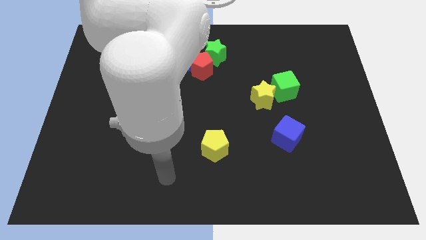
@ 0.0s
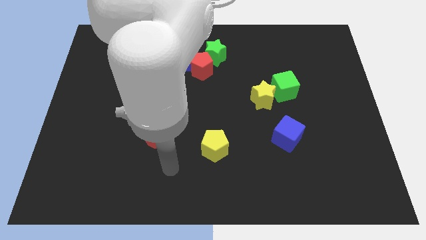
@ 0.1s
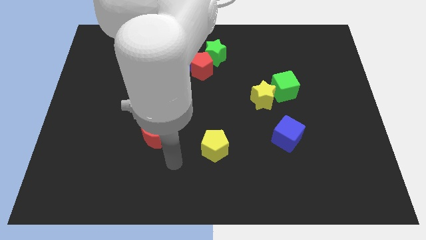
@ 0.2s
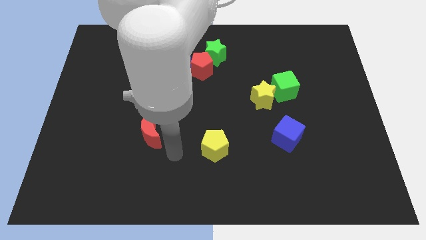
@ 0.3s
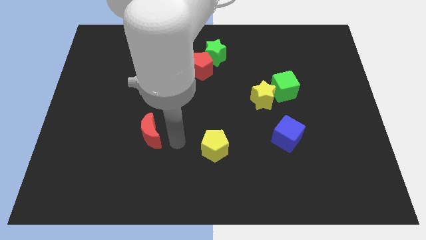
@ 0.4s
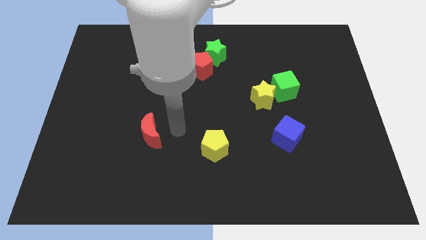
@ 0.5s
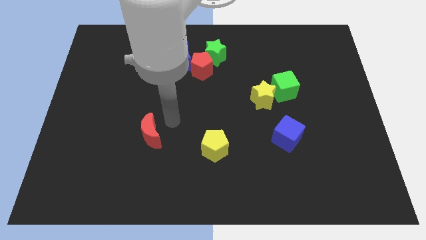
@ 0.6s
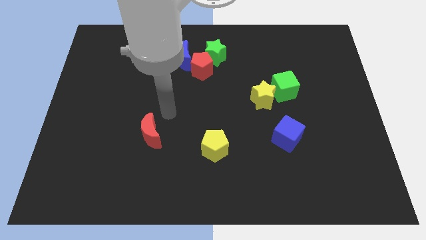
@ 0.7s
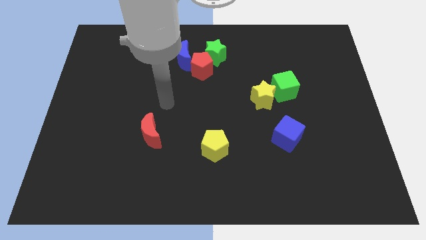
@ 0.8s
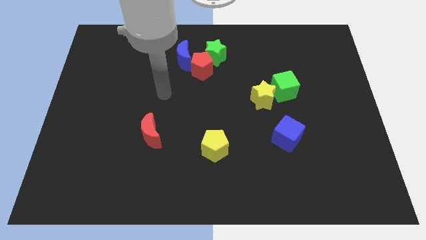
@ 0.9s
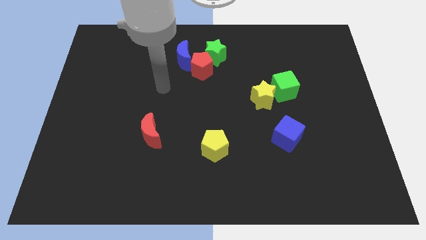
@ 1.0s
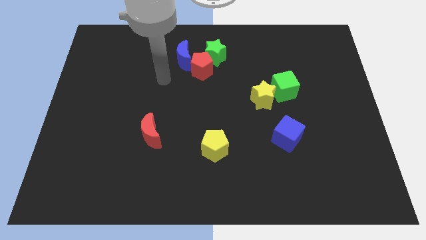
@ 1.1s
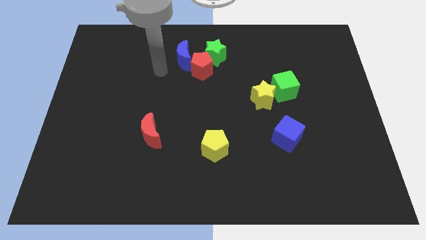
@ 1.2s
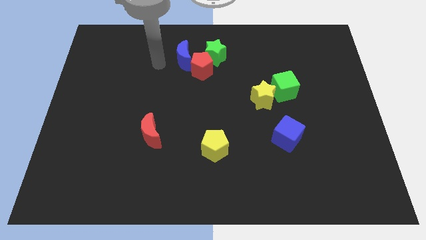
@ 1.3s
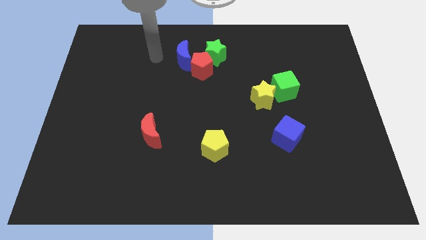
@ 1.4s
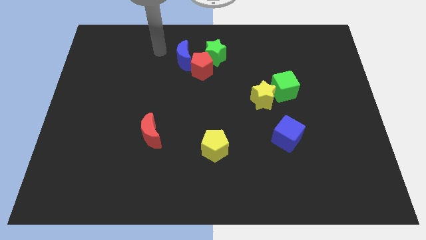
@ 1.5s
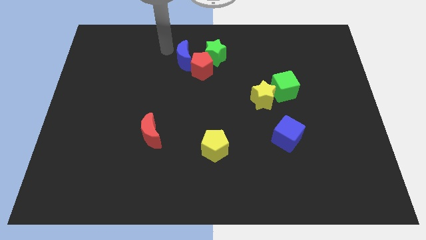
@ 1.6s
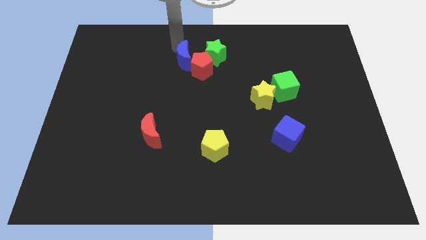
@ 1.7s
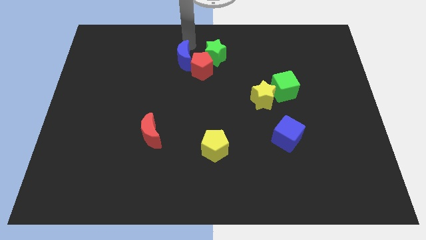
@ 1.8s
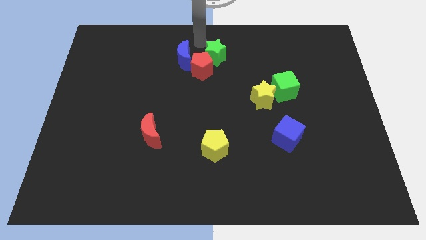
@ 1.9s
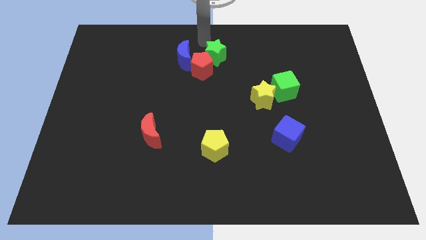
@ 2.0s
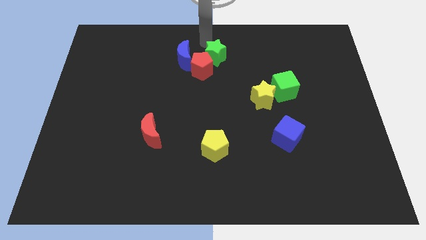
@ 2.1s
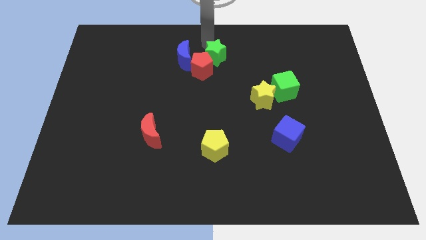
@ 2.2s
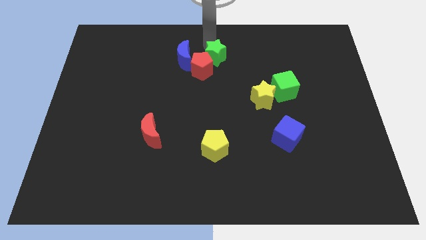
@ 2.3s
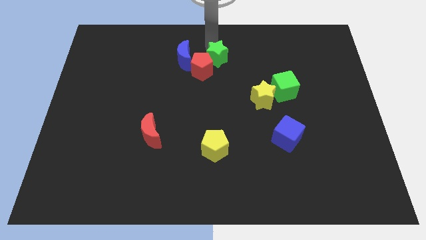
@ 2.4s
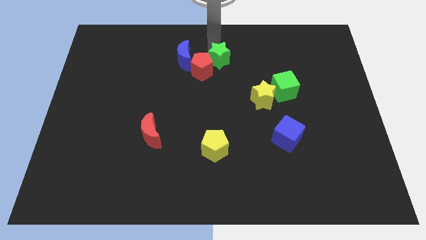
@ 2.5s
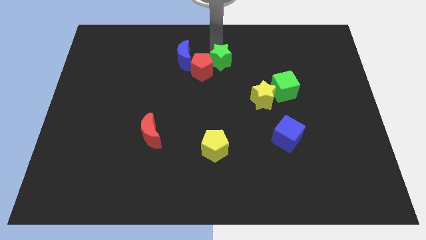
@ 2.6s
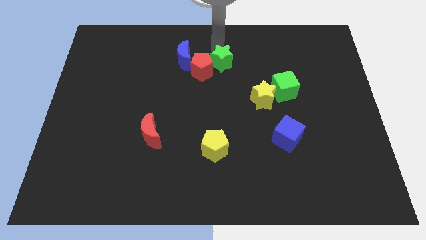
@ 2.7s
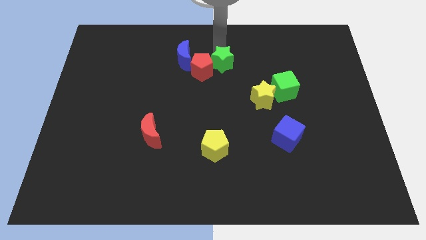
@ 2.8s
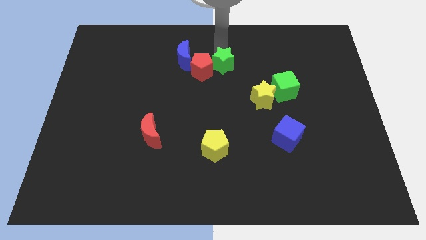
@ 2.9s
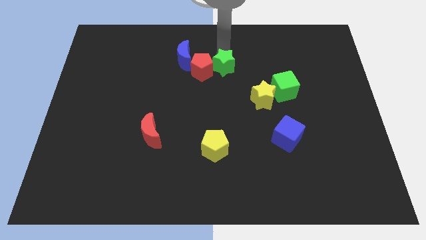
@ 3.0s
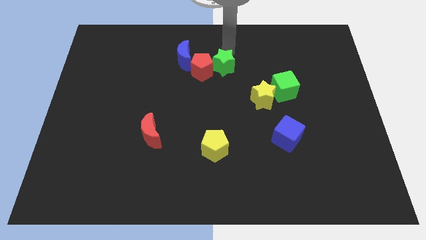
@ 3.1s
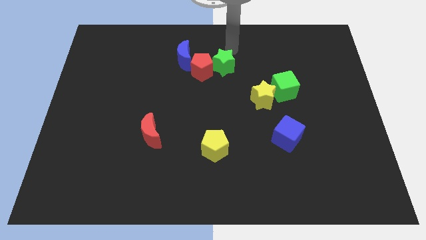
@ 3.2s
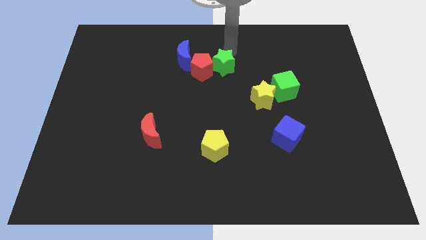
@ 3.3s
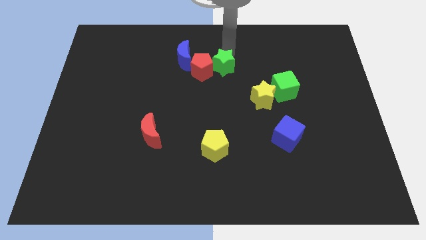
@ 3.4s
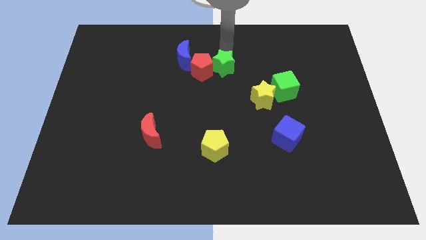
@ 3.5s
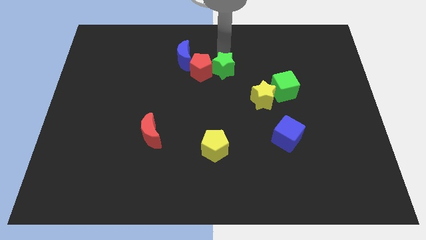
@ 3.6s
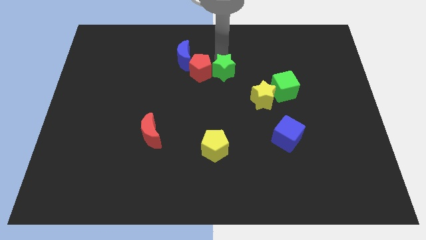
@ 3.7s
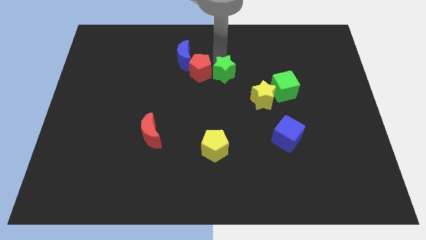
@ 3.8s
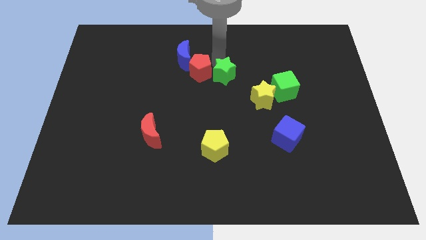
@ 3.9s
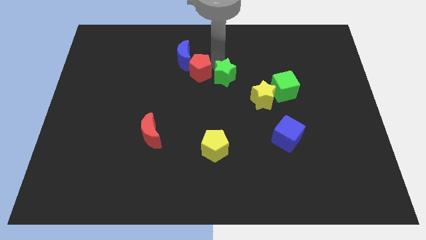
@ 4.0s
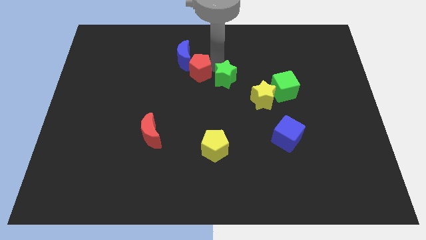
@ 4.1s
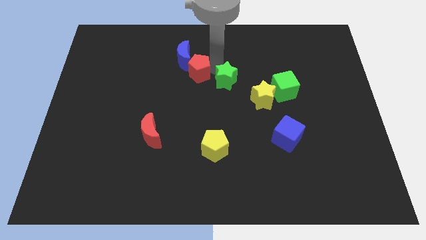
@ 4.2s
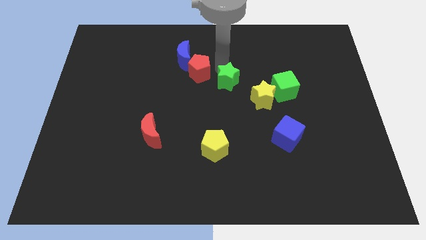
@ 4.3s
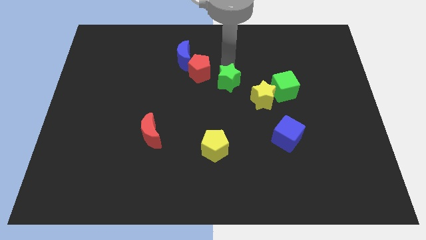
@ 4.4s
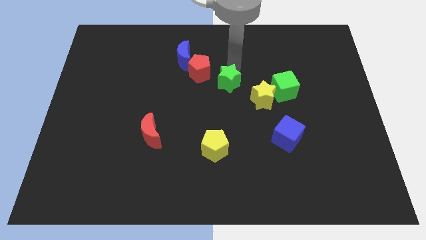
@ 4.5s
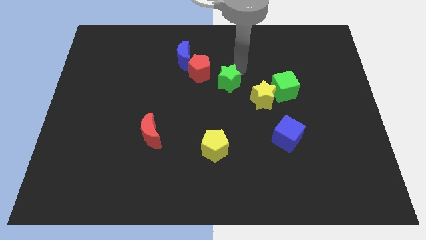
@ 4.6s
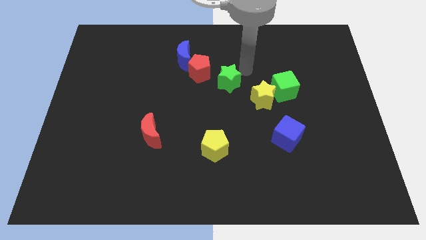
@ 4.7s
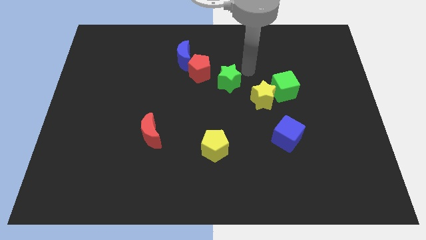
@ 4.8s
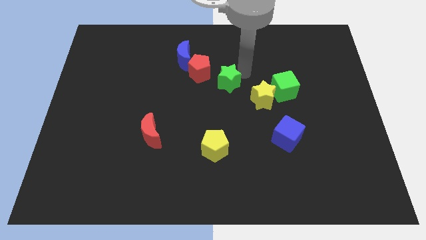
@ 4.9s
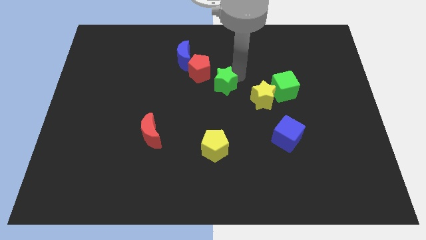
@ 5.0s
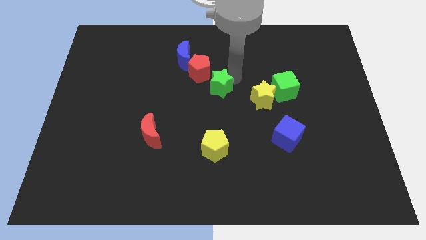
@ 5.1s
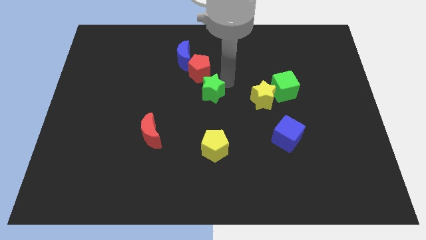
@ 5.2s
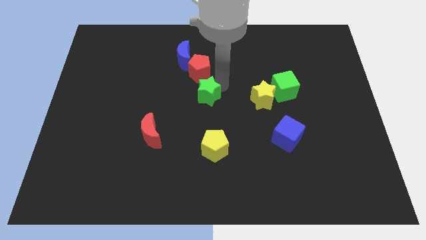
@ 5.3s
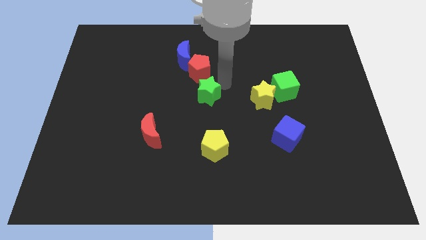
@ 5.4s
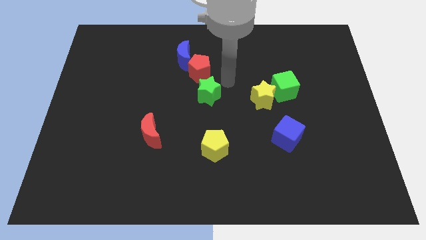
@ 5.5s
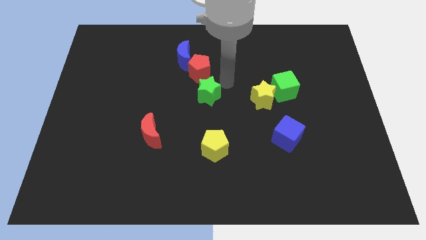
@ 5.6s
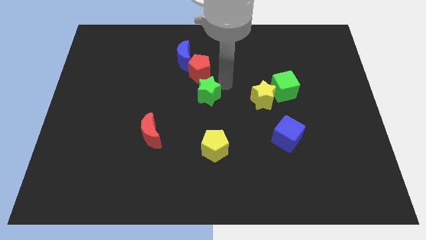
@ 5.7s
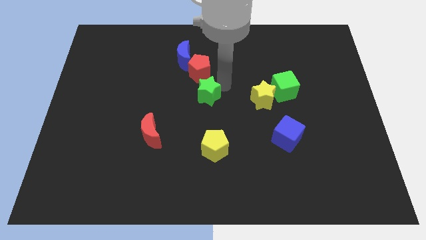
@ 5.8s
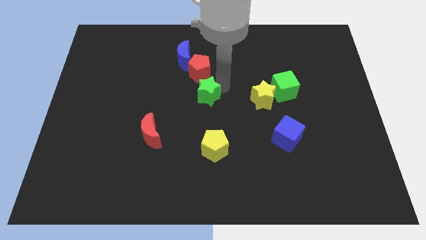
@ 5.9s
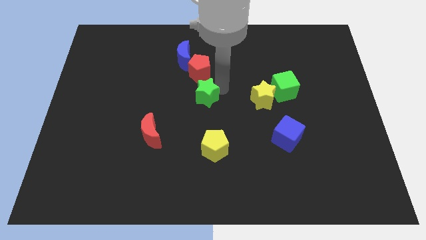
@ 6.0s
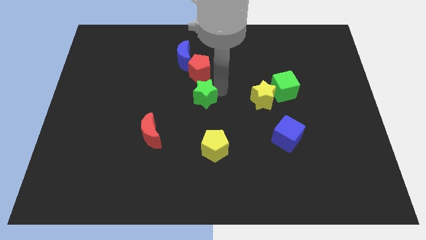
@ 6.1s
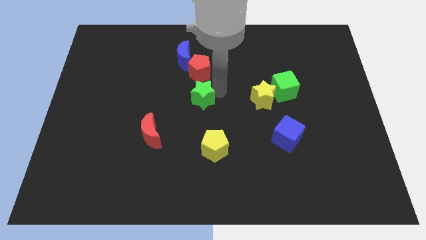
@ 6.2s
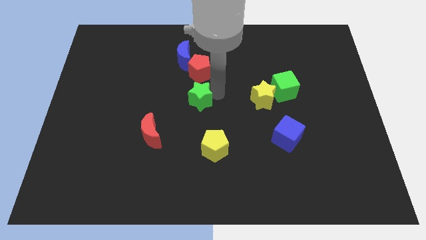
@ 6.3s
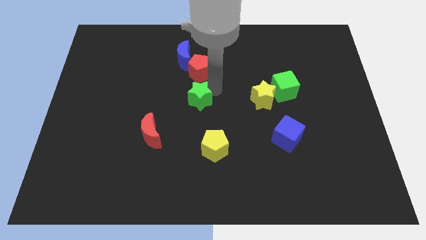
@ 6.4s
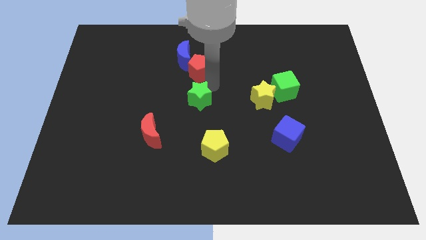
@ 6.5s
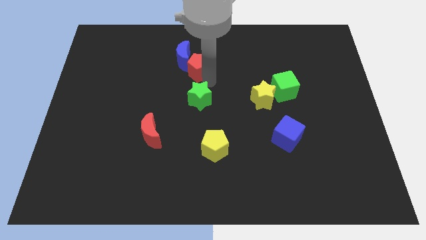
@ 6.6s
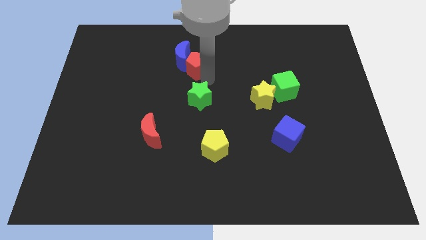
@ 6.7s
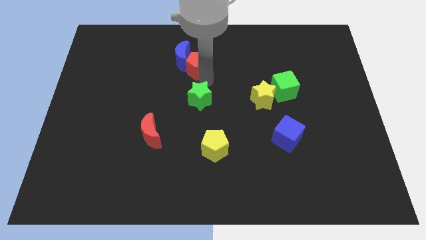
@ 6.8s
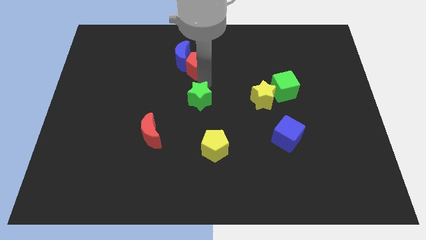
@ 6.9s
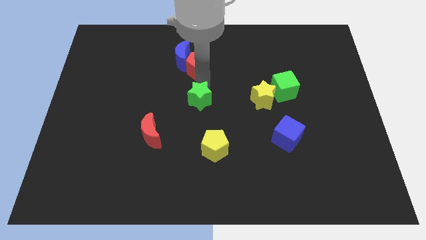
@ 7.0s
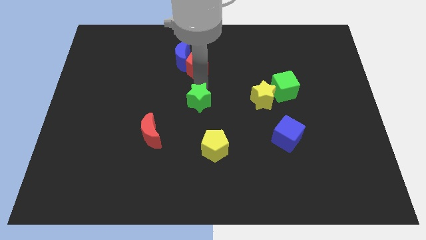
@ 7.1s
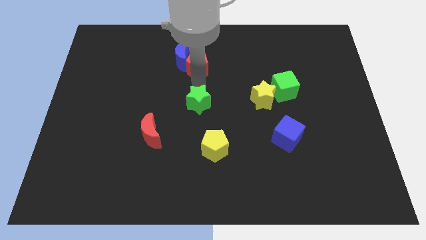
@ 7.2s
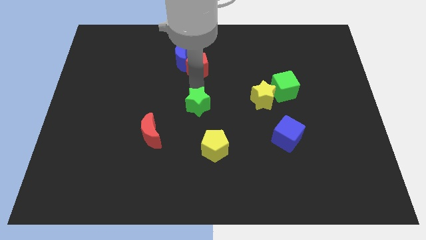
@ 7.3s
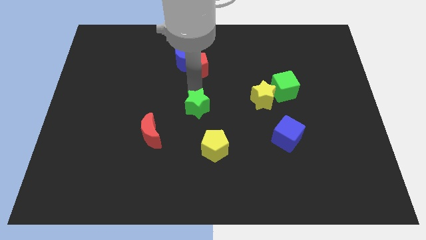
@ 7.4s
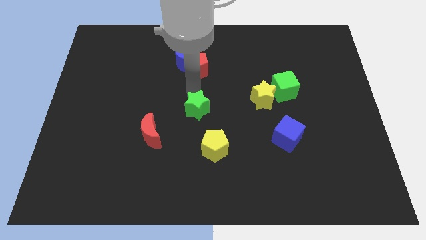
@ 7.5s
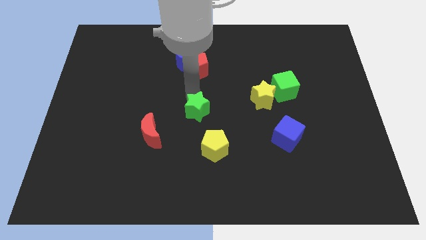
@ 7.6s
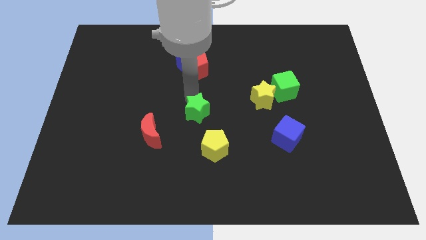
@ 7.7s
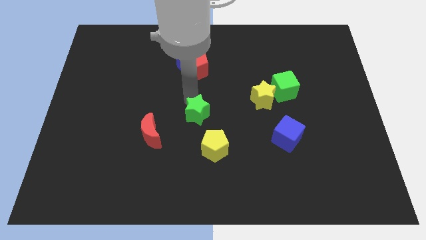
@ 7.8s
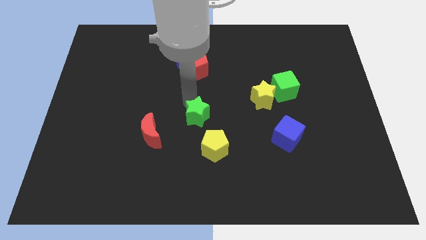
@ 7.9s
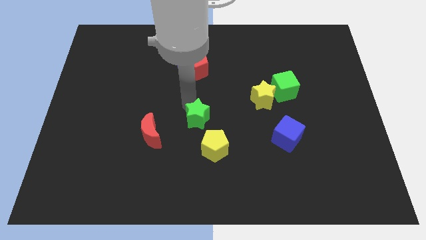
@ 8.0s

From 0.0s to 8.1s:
move the green star downwards
